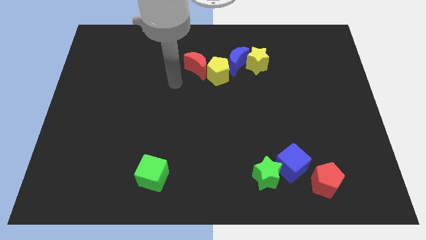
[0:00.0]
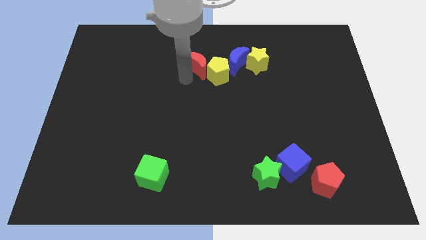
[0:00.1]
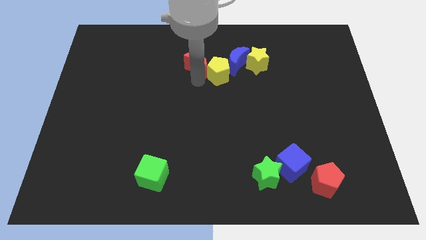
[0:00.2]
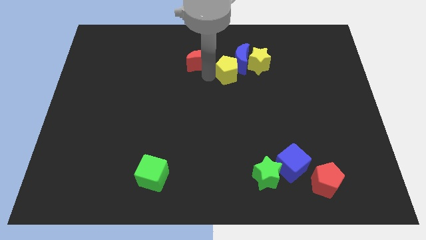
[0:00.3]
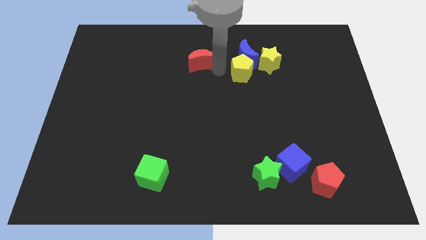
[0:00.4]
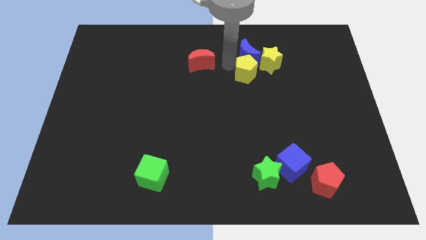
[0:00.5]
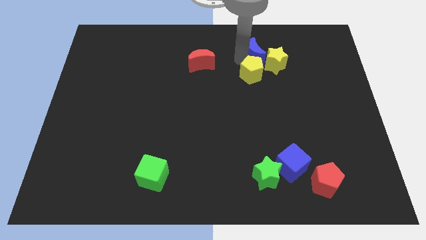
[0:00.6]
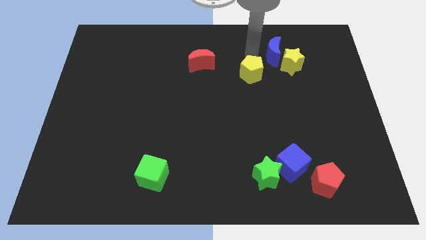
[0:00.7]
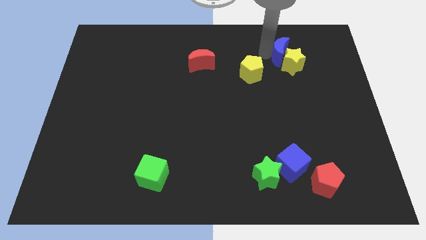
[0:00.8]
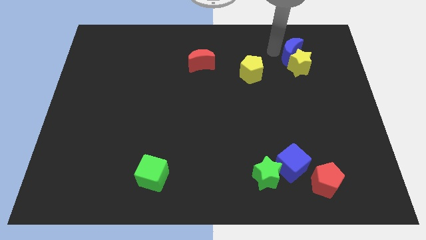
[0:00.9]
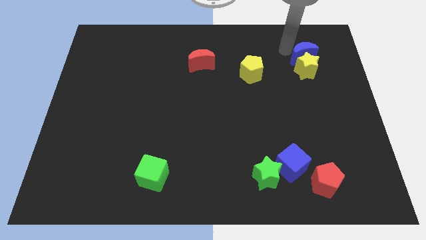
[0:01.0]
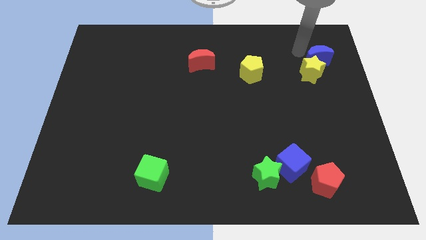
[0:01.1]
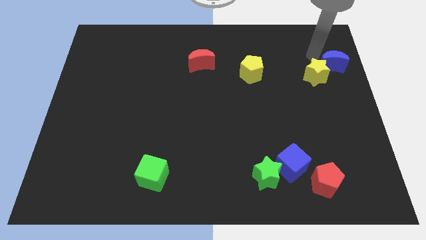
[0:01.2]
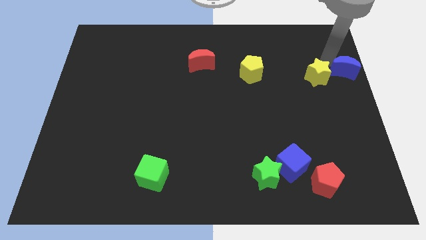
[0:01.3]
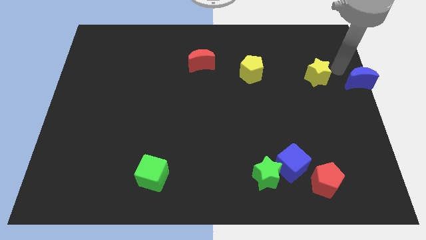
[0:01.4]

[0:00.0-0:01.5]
separate the yellow star from the blue moon

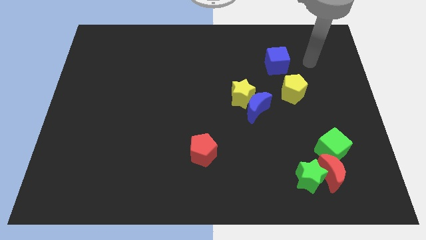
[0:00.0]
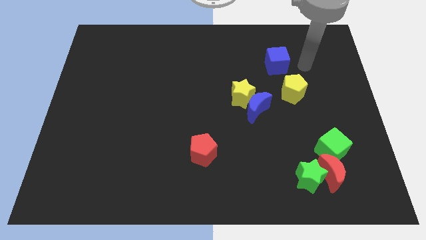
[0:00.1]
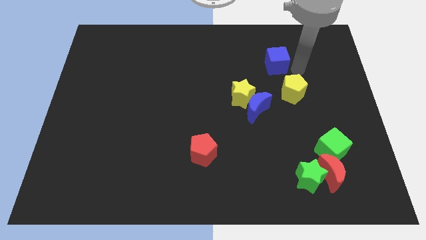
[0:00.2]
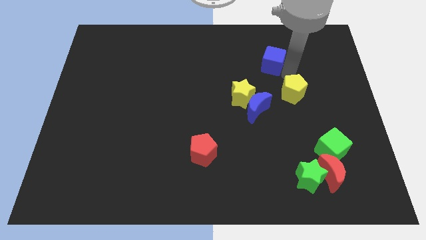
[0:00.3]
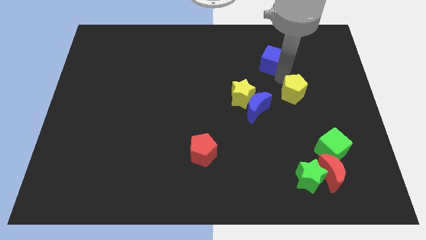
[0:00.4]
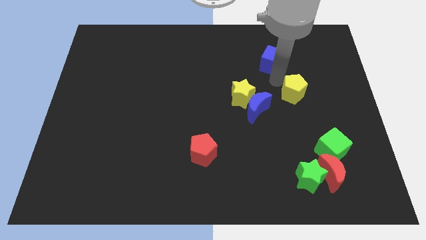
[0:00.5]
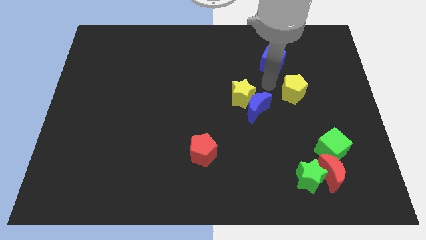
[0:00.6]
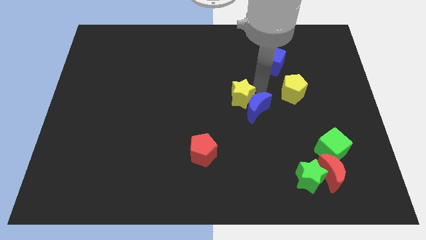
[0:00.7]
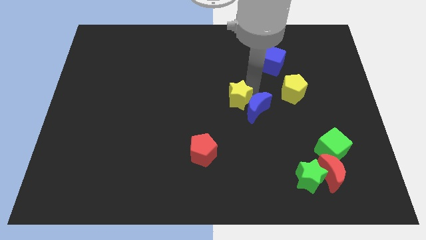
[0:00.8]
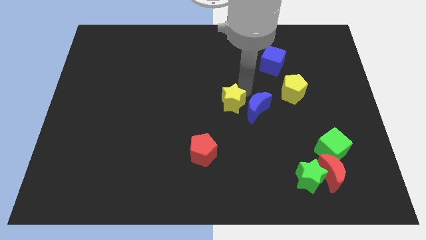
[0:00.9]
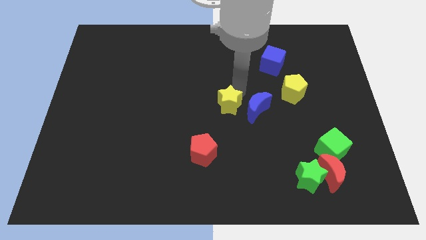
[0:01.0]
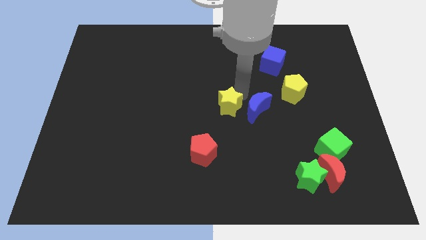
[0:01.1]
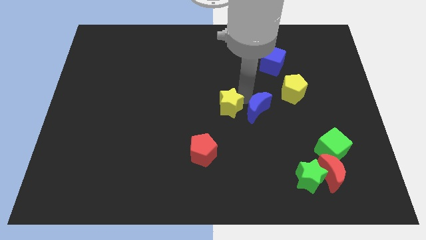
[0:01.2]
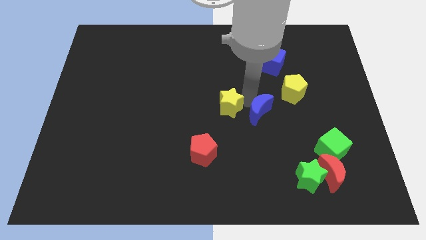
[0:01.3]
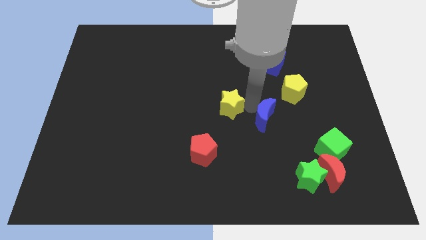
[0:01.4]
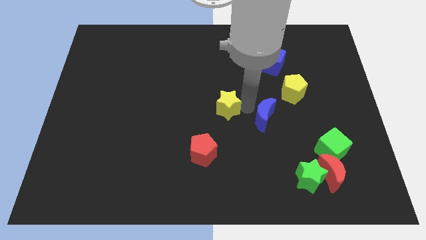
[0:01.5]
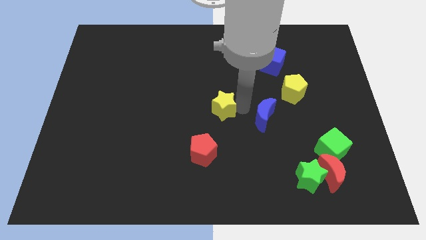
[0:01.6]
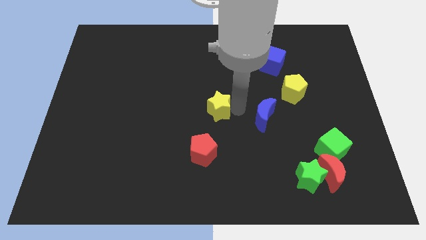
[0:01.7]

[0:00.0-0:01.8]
separate the blue moon from the yellow star

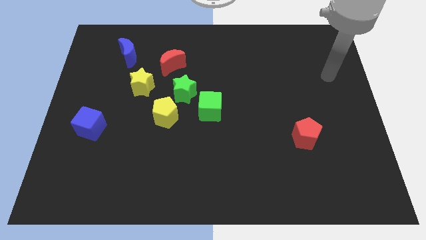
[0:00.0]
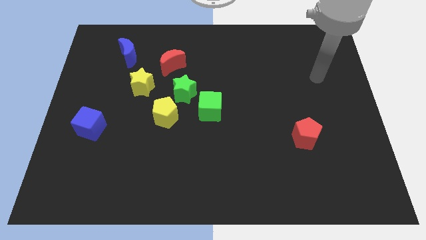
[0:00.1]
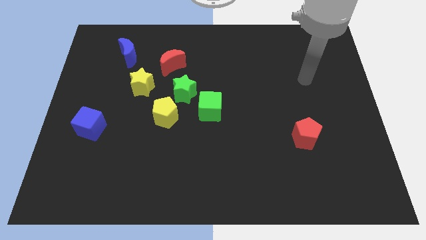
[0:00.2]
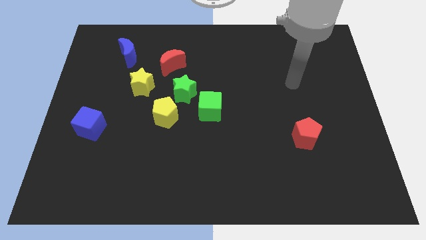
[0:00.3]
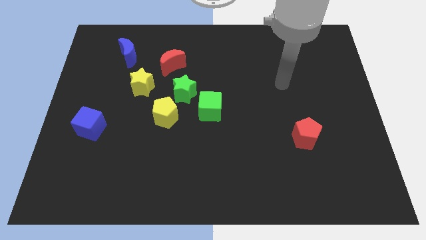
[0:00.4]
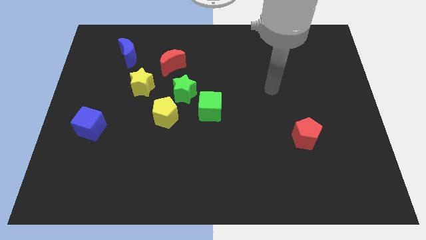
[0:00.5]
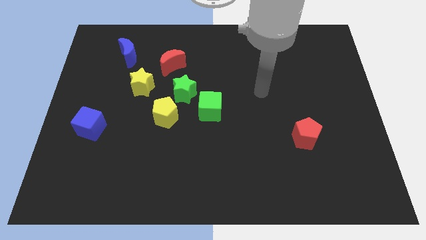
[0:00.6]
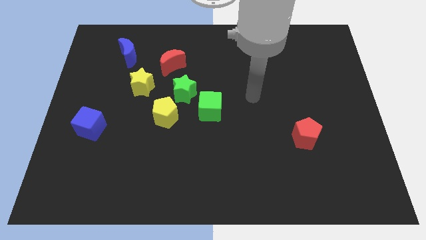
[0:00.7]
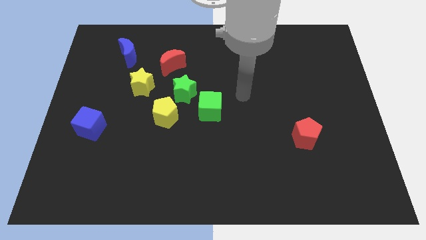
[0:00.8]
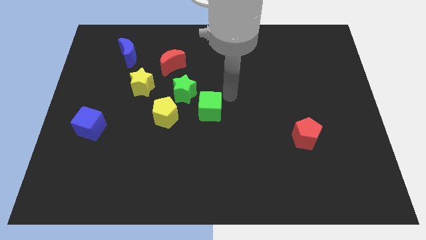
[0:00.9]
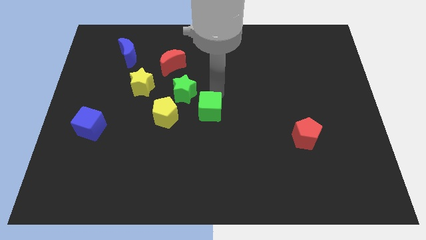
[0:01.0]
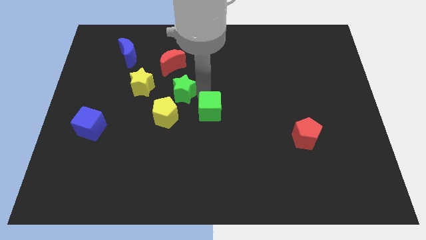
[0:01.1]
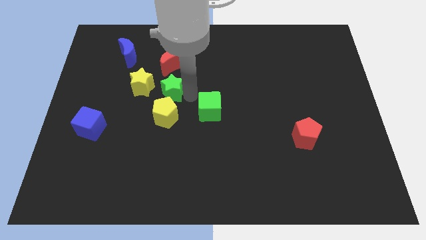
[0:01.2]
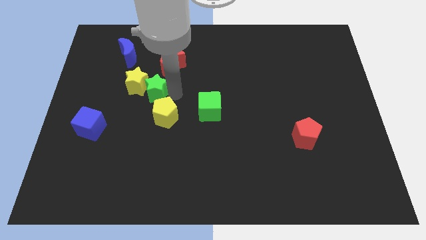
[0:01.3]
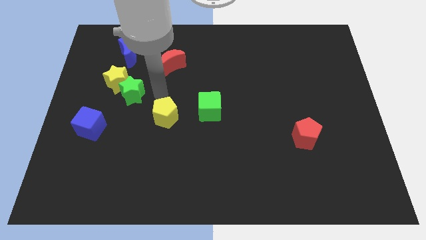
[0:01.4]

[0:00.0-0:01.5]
pull the yellow pentagon apart from the green star

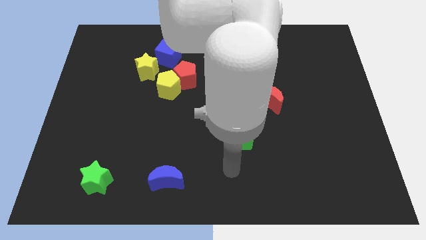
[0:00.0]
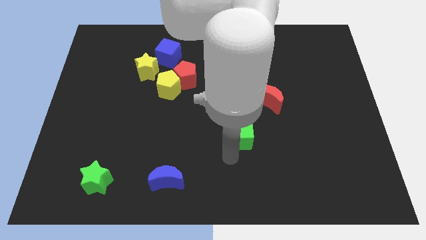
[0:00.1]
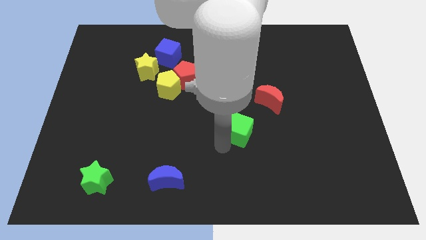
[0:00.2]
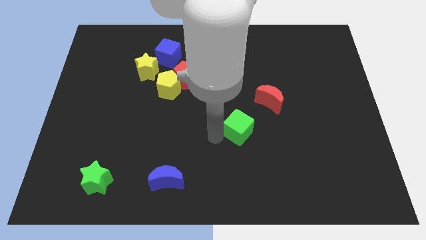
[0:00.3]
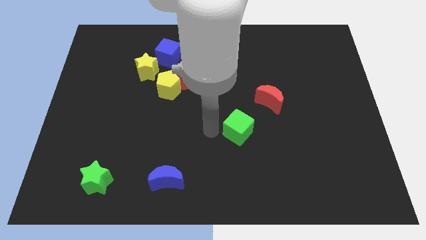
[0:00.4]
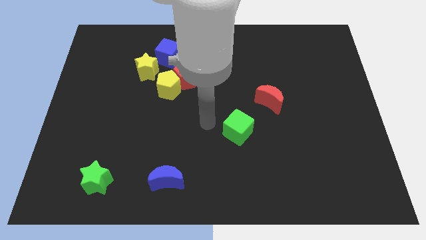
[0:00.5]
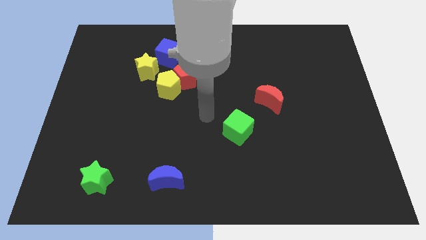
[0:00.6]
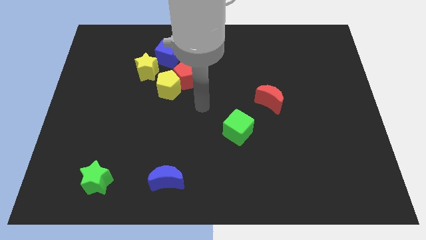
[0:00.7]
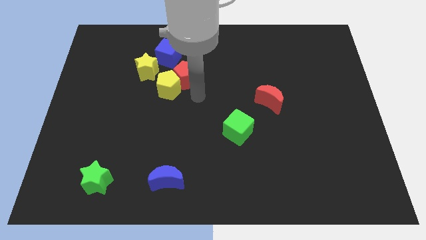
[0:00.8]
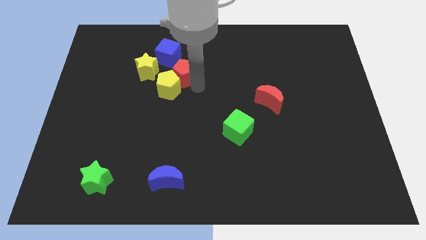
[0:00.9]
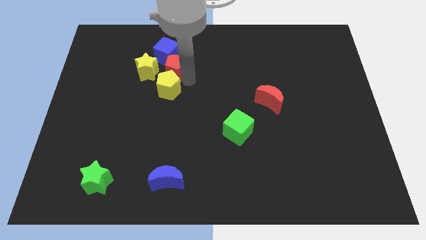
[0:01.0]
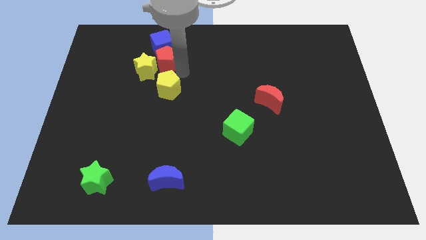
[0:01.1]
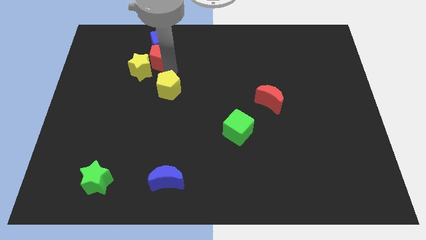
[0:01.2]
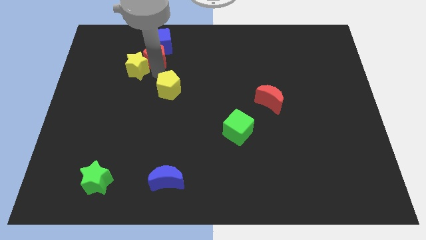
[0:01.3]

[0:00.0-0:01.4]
move the yellow pentagon away from the red pentagon and yellow star

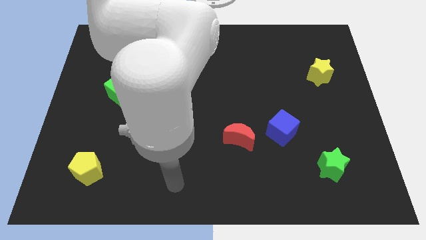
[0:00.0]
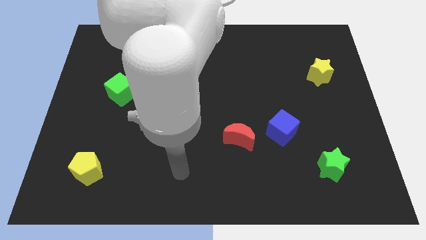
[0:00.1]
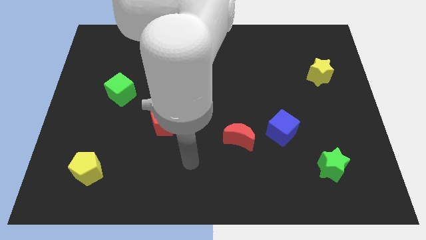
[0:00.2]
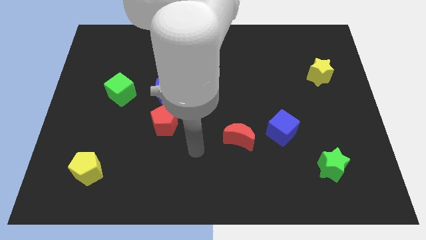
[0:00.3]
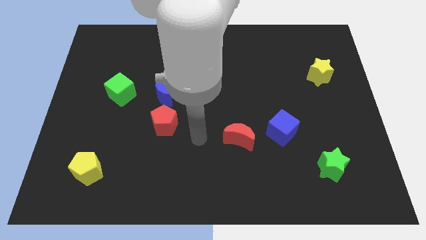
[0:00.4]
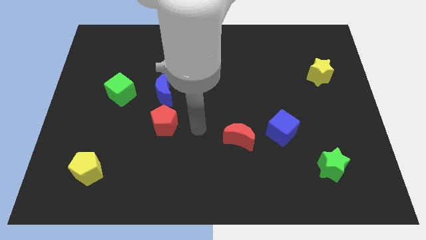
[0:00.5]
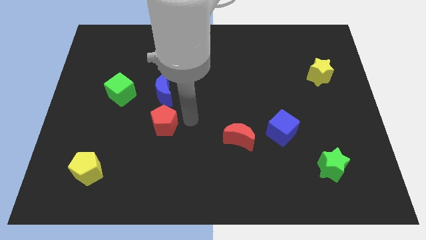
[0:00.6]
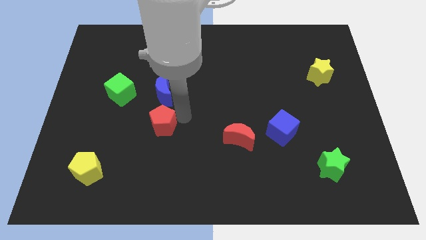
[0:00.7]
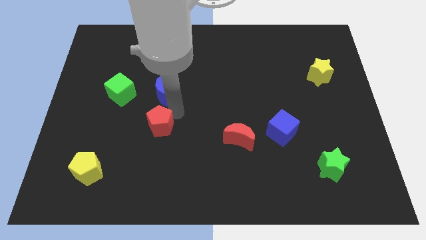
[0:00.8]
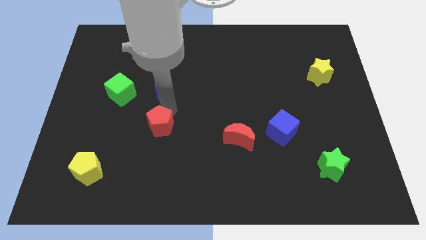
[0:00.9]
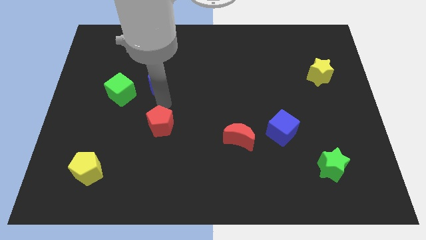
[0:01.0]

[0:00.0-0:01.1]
pull the red pentagon apart from the blue moon

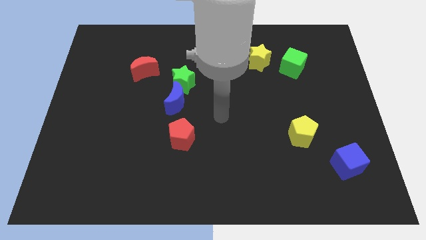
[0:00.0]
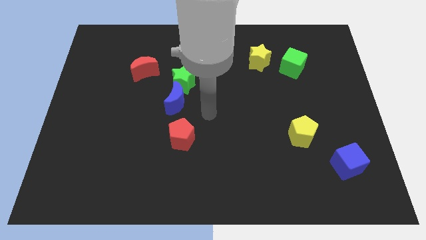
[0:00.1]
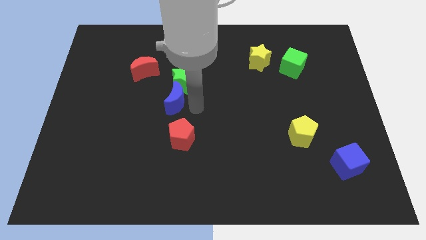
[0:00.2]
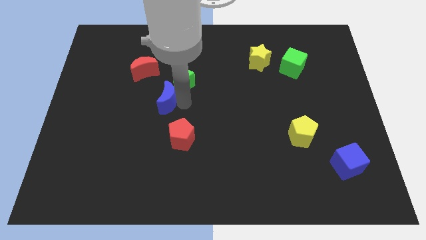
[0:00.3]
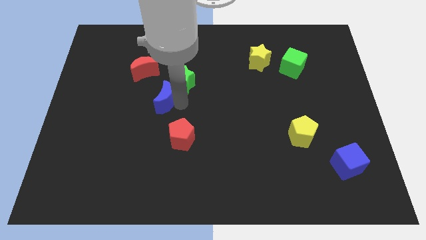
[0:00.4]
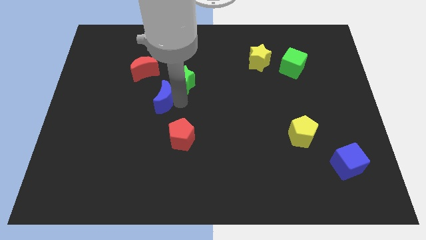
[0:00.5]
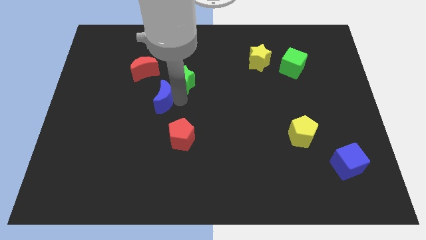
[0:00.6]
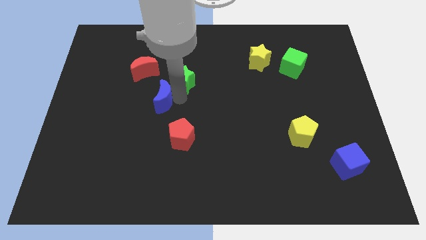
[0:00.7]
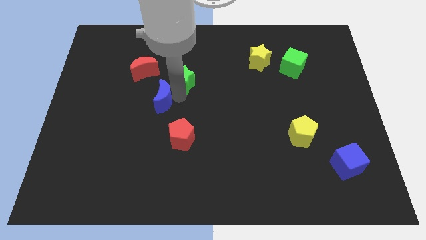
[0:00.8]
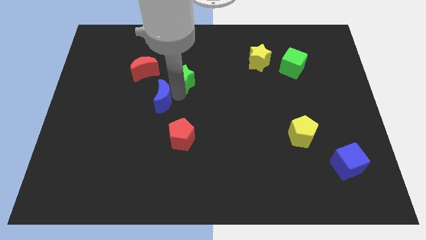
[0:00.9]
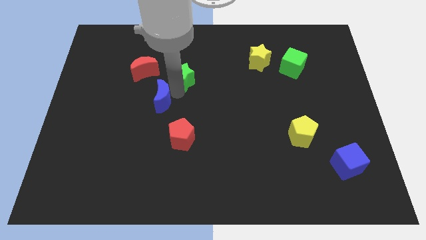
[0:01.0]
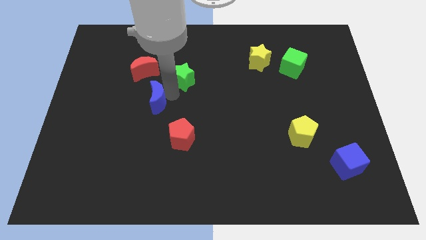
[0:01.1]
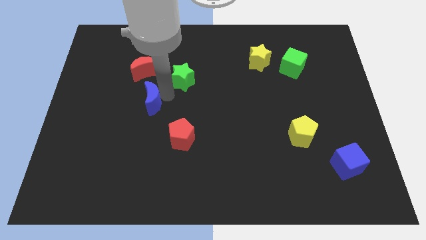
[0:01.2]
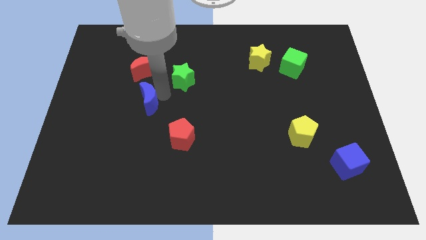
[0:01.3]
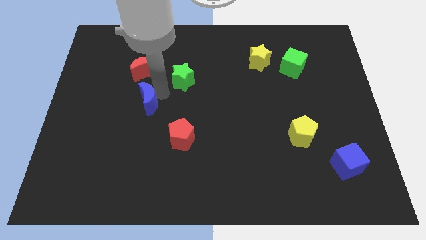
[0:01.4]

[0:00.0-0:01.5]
pull the green star apart from the blue moon

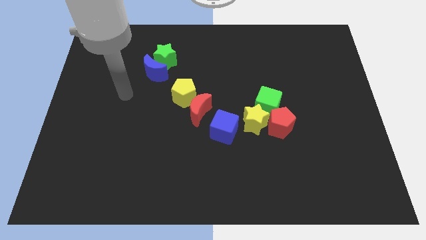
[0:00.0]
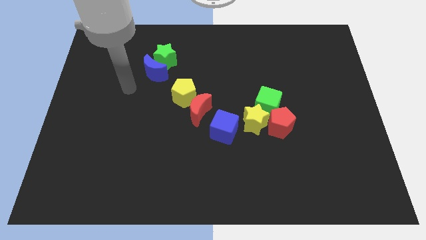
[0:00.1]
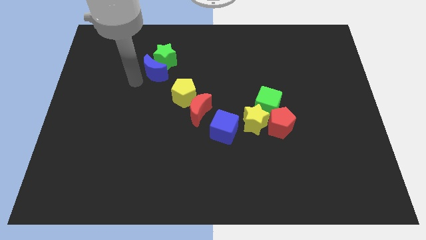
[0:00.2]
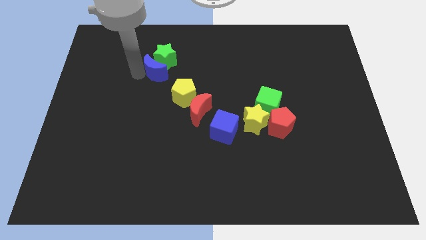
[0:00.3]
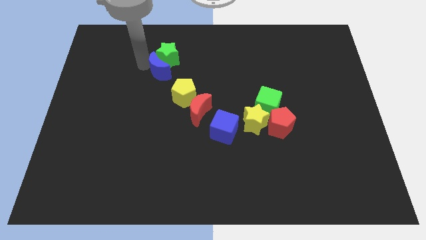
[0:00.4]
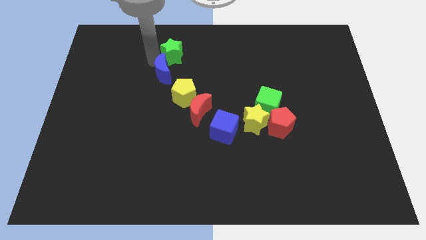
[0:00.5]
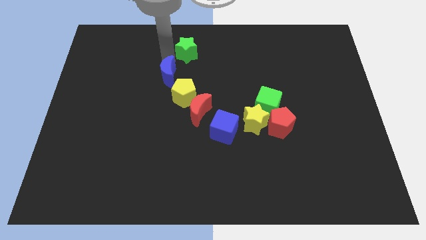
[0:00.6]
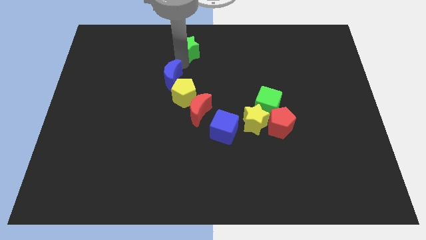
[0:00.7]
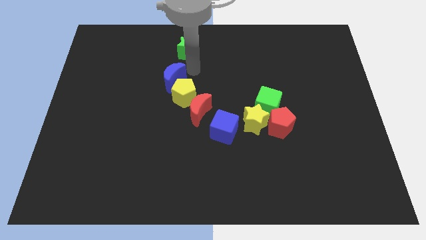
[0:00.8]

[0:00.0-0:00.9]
pull the blue moon apart from the green star
